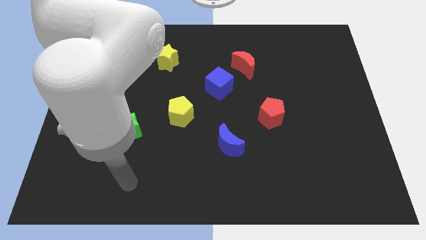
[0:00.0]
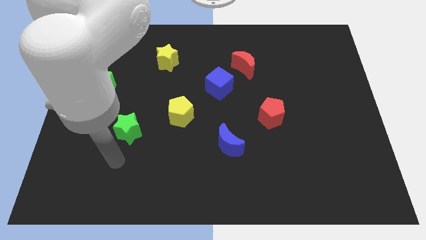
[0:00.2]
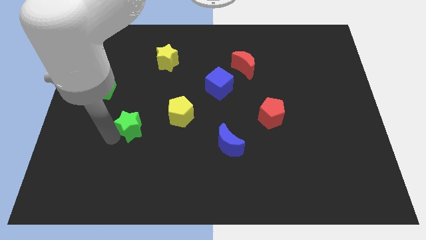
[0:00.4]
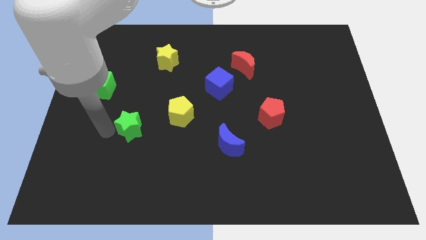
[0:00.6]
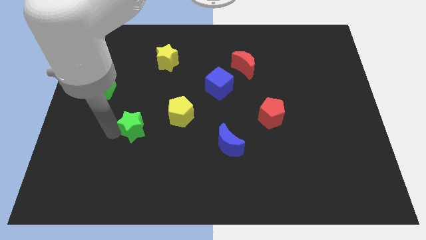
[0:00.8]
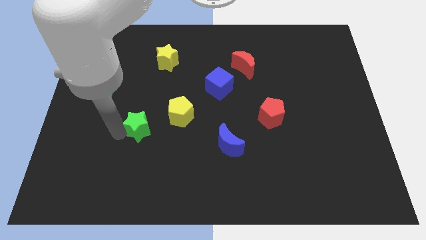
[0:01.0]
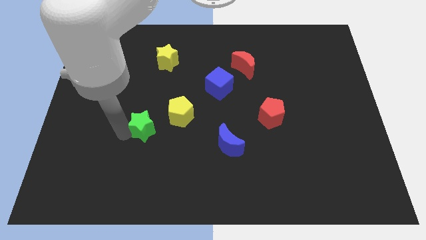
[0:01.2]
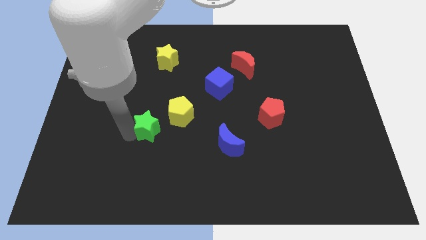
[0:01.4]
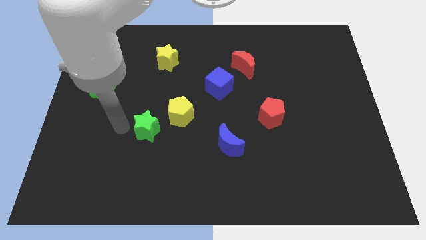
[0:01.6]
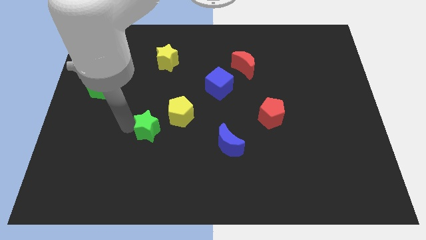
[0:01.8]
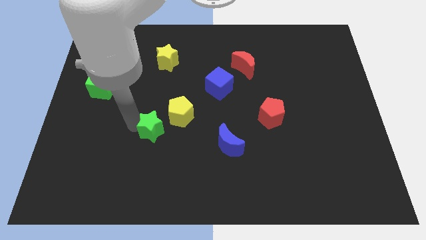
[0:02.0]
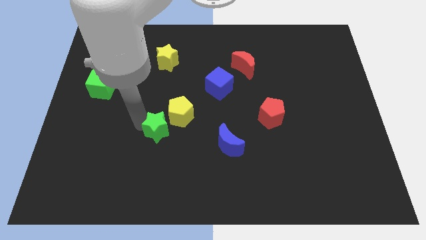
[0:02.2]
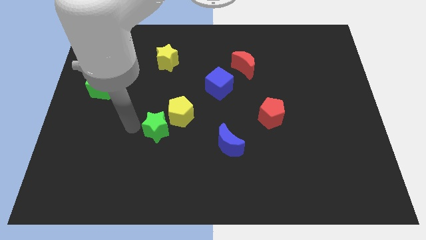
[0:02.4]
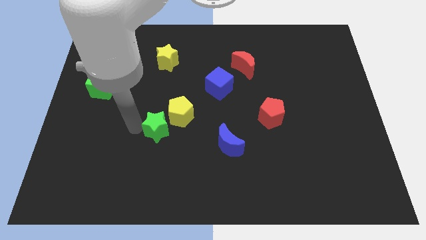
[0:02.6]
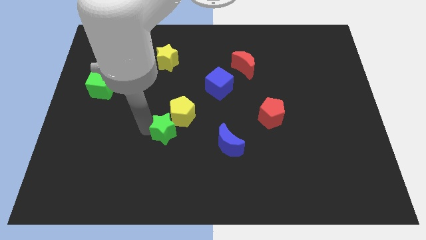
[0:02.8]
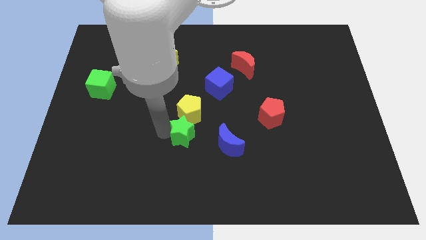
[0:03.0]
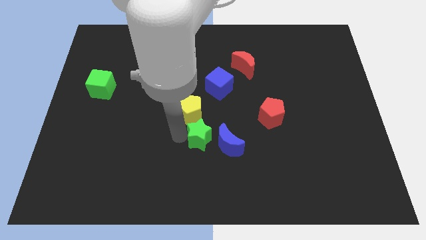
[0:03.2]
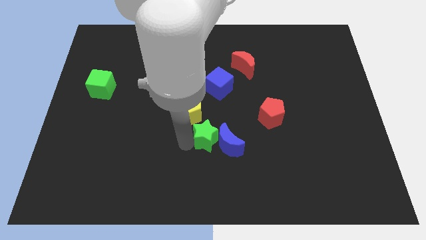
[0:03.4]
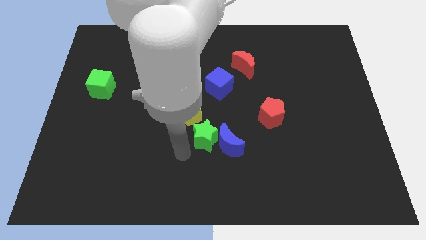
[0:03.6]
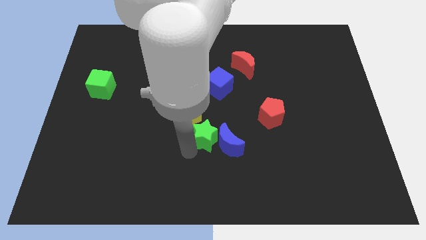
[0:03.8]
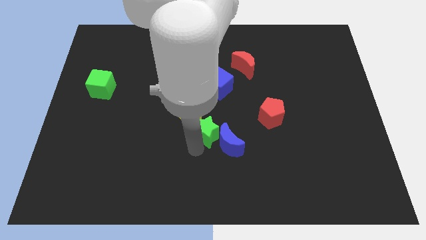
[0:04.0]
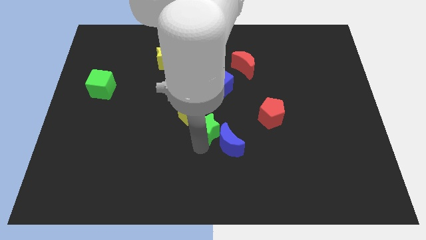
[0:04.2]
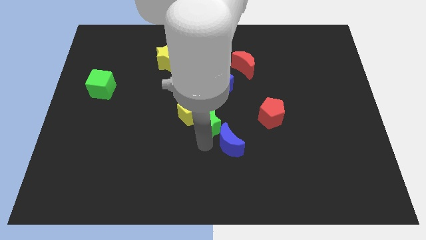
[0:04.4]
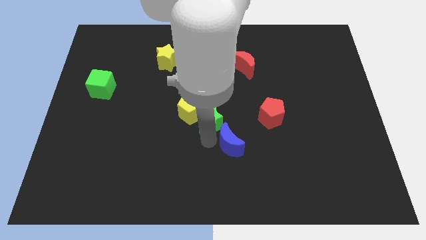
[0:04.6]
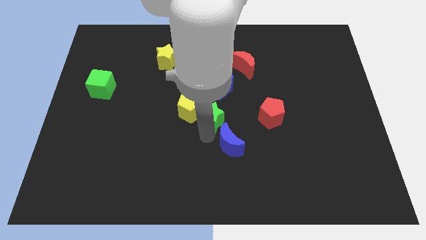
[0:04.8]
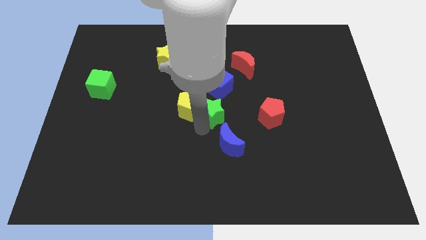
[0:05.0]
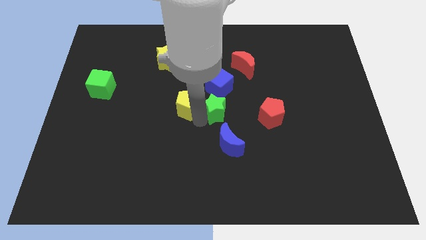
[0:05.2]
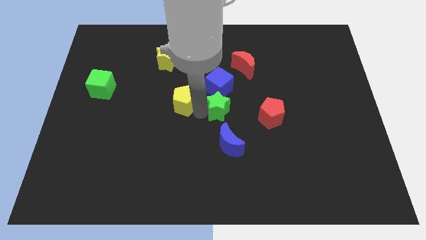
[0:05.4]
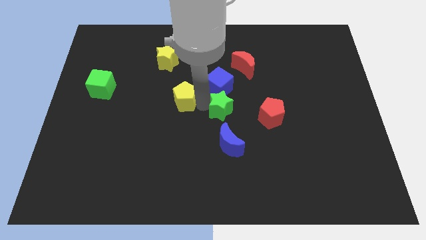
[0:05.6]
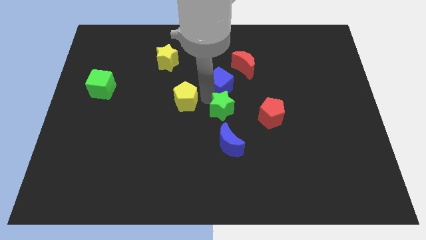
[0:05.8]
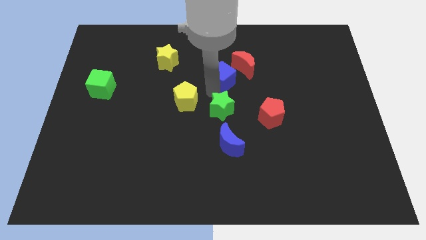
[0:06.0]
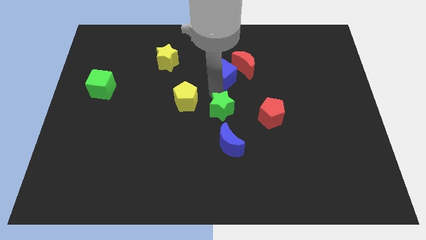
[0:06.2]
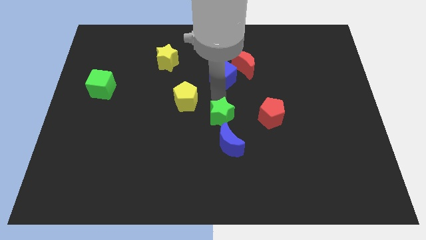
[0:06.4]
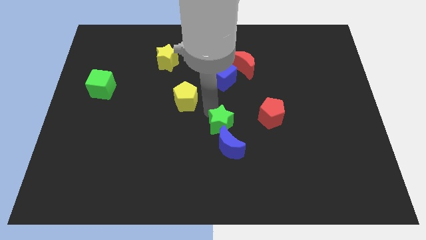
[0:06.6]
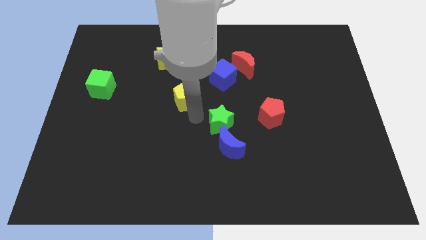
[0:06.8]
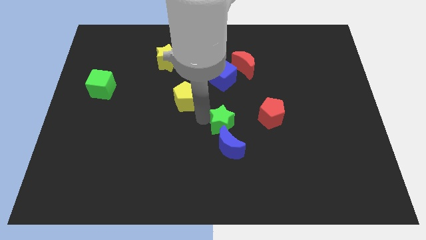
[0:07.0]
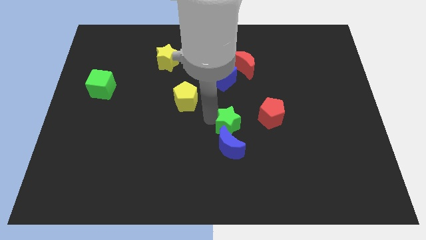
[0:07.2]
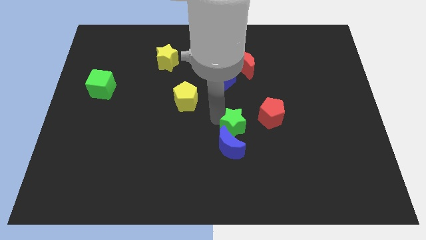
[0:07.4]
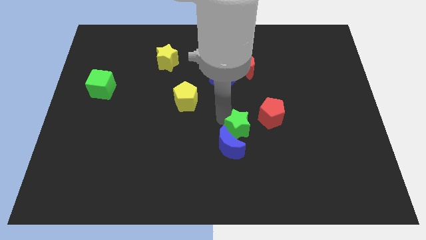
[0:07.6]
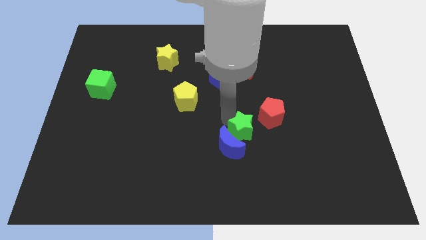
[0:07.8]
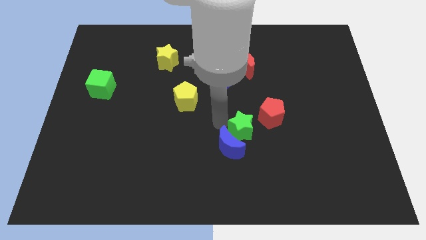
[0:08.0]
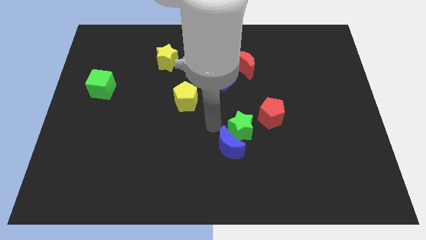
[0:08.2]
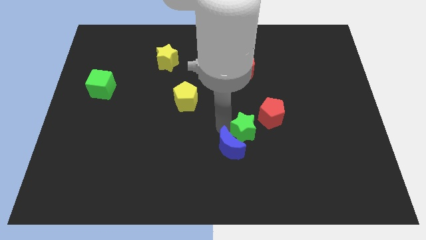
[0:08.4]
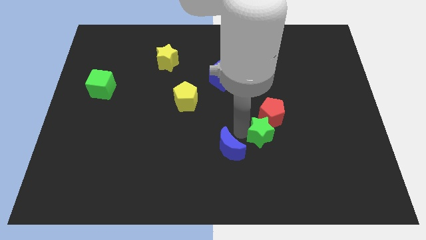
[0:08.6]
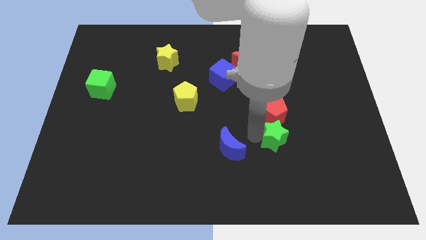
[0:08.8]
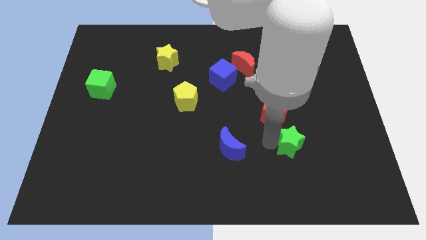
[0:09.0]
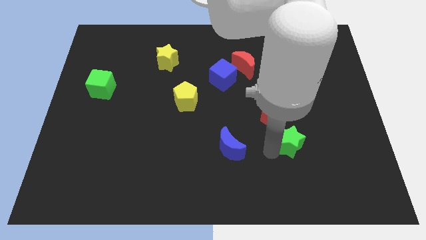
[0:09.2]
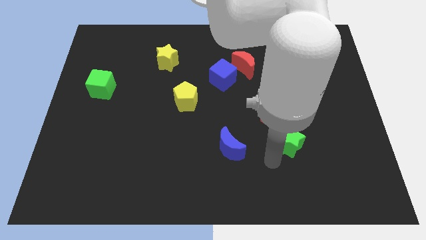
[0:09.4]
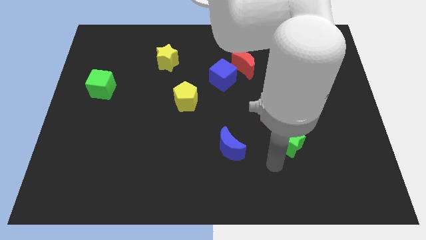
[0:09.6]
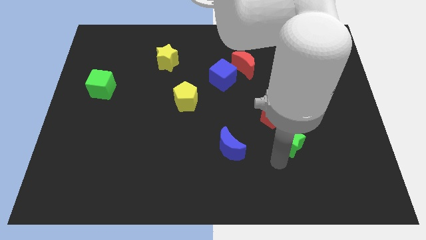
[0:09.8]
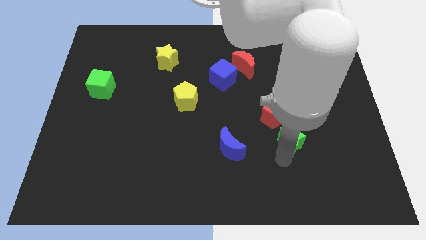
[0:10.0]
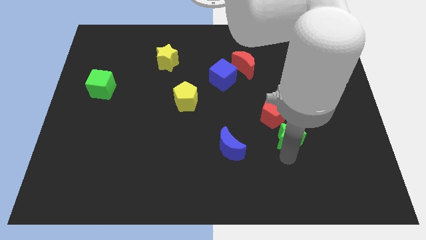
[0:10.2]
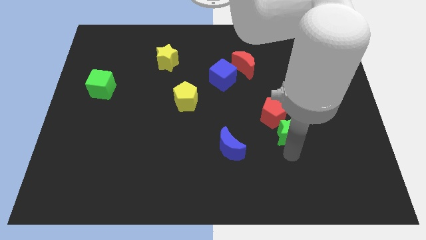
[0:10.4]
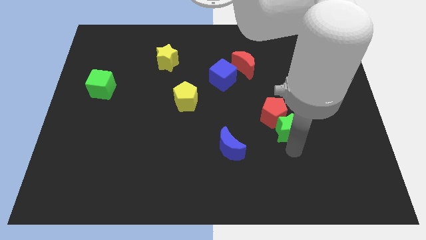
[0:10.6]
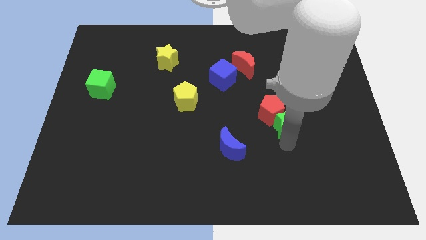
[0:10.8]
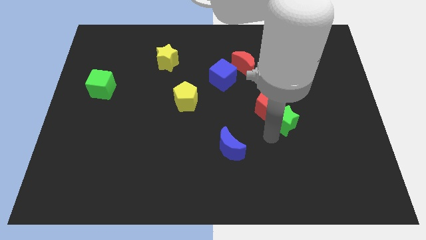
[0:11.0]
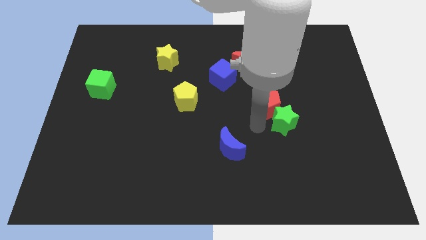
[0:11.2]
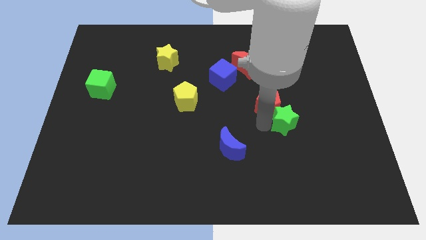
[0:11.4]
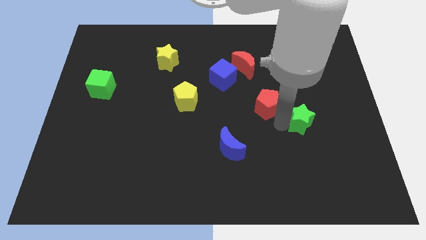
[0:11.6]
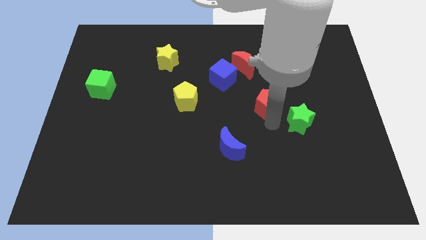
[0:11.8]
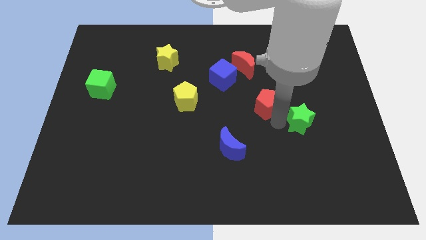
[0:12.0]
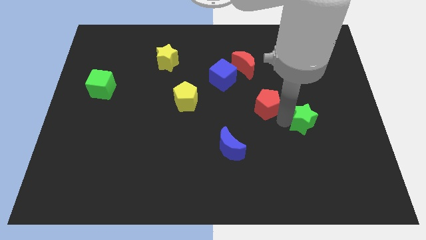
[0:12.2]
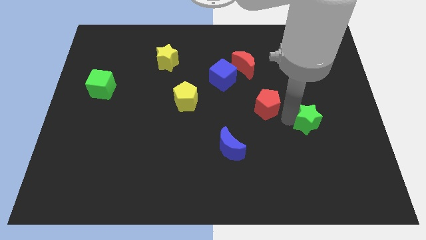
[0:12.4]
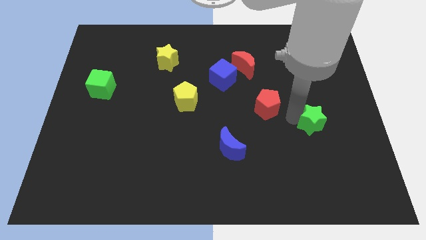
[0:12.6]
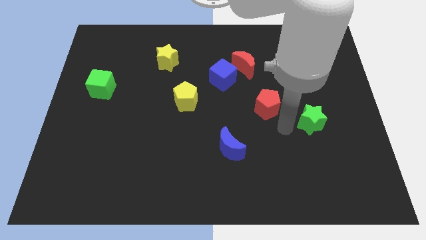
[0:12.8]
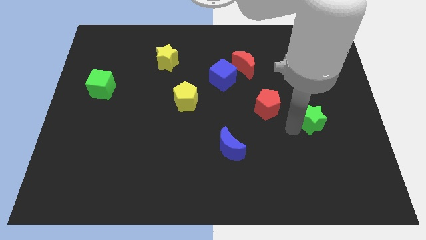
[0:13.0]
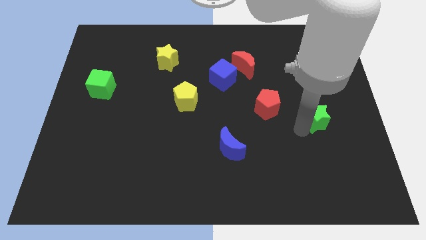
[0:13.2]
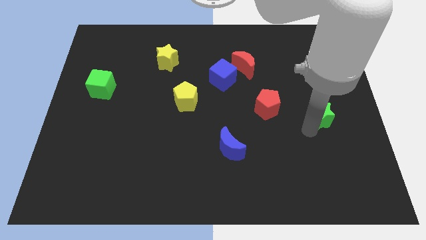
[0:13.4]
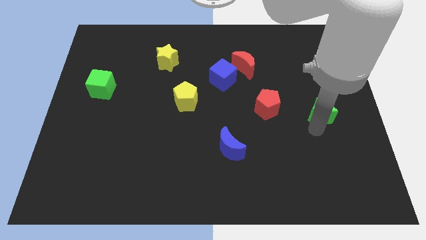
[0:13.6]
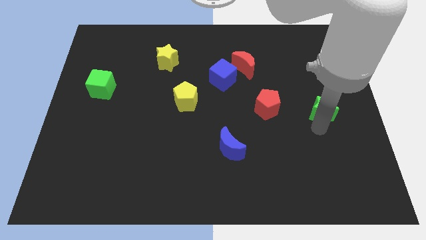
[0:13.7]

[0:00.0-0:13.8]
slide the green star to the right side

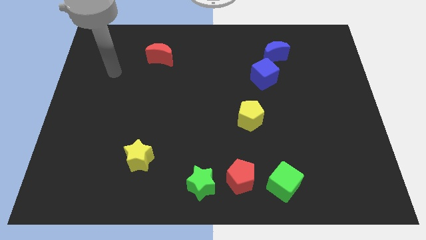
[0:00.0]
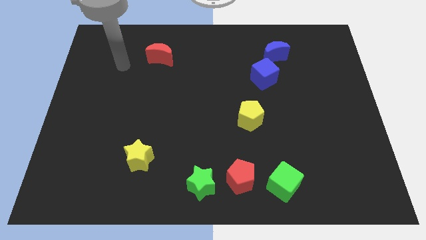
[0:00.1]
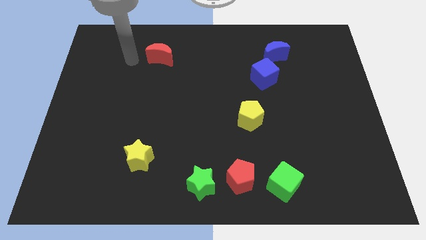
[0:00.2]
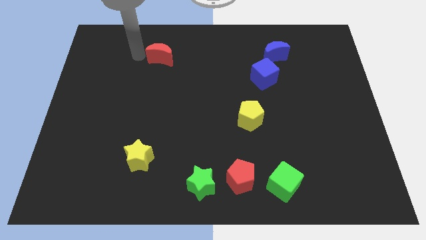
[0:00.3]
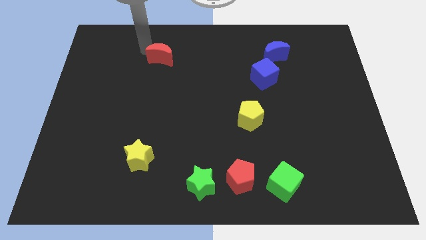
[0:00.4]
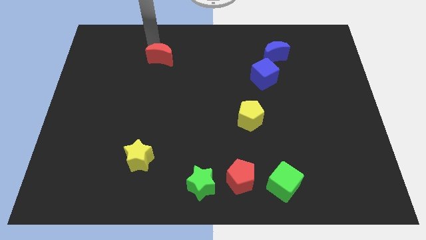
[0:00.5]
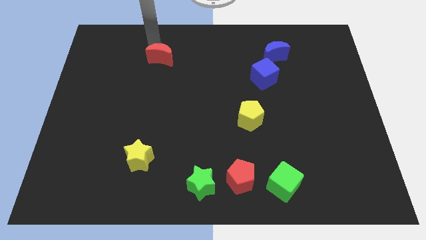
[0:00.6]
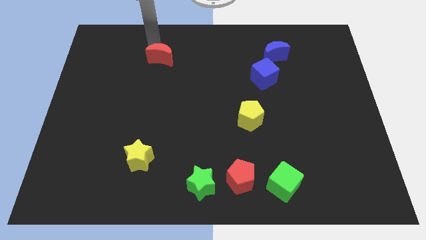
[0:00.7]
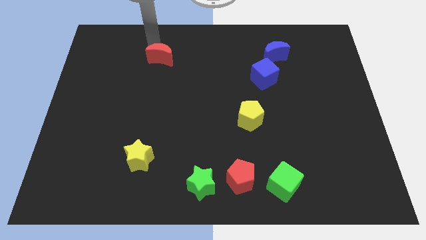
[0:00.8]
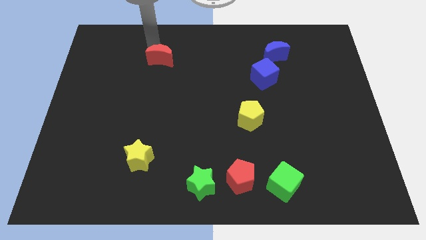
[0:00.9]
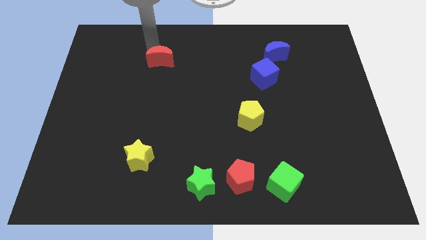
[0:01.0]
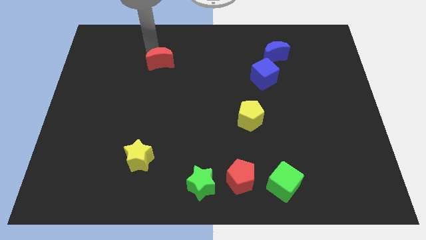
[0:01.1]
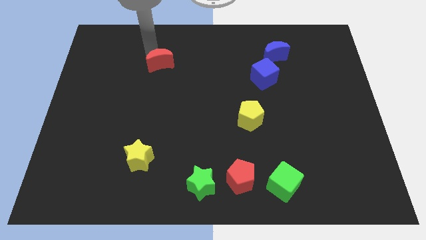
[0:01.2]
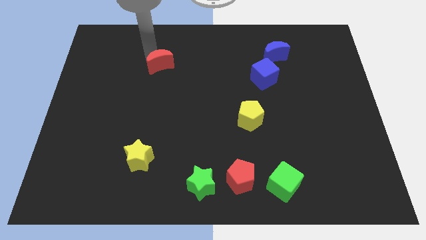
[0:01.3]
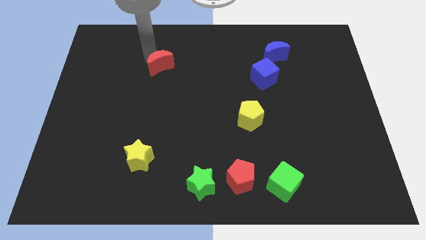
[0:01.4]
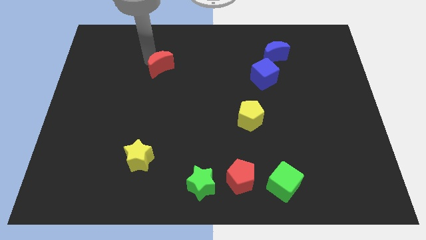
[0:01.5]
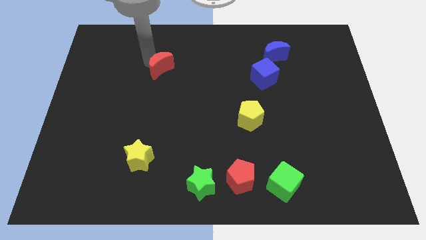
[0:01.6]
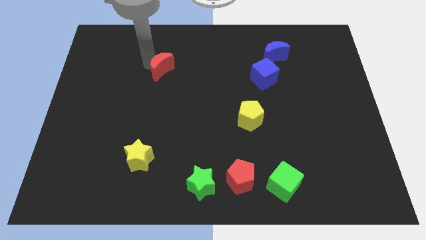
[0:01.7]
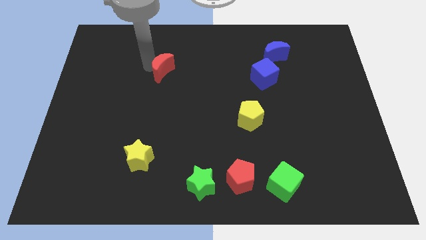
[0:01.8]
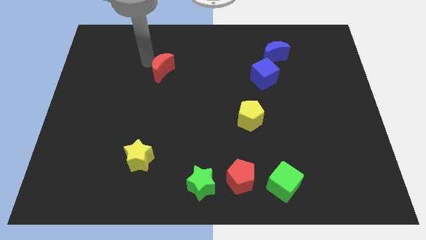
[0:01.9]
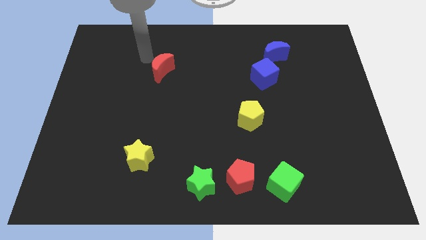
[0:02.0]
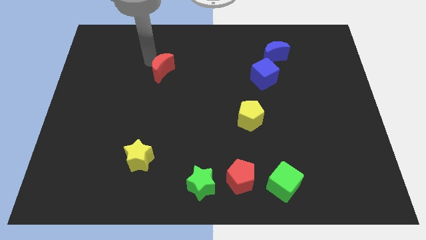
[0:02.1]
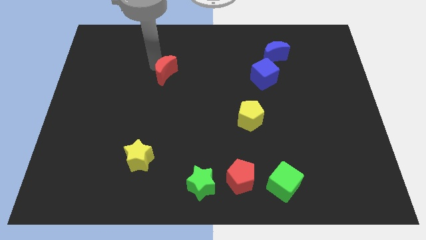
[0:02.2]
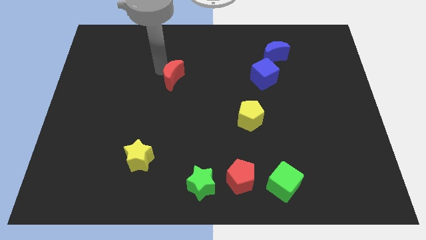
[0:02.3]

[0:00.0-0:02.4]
push the red moon to the center
